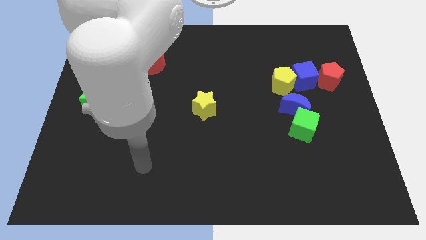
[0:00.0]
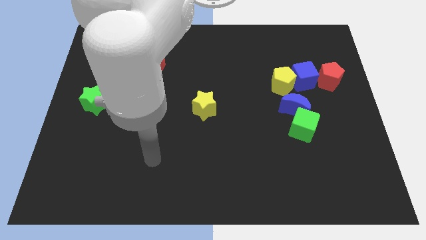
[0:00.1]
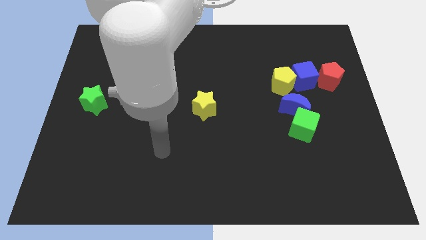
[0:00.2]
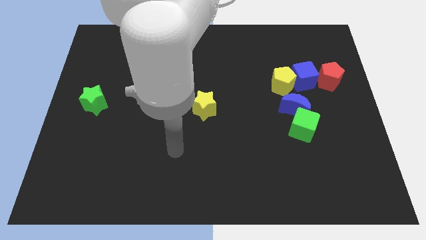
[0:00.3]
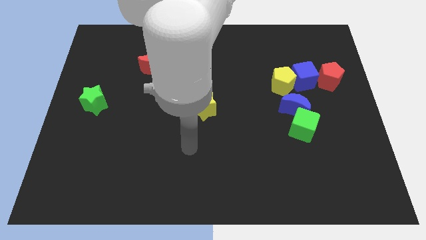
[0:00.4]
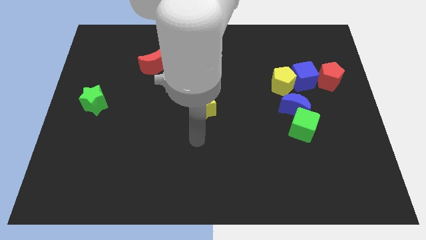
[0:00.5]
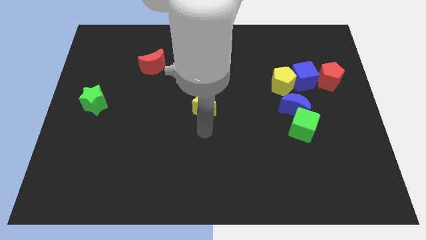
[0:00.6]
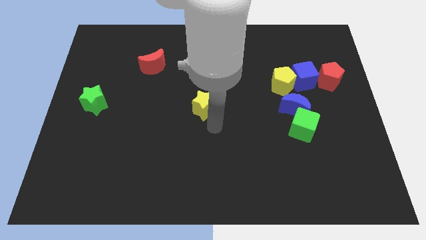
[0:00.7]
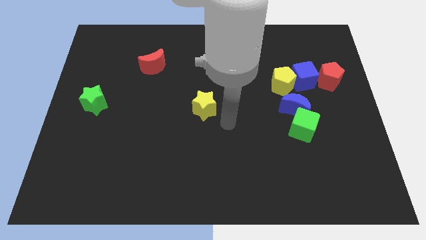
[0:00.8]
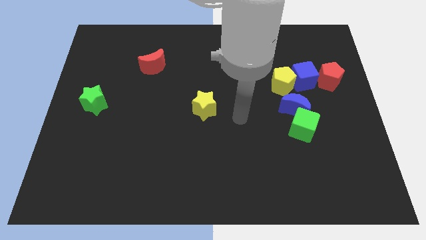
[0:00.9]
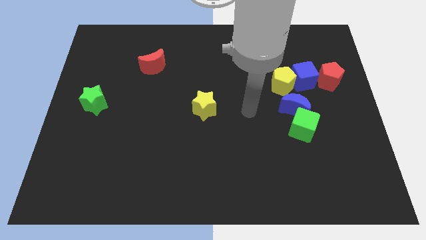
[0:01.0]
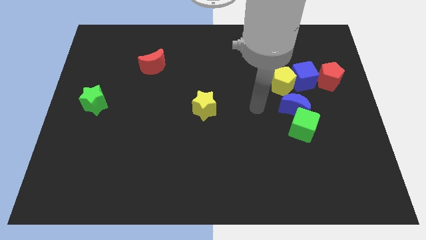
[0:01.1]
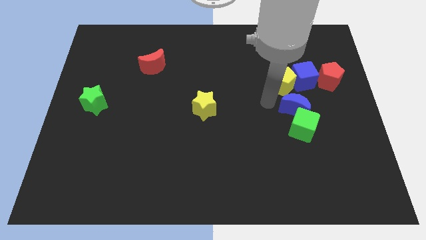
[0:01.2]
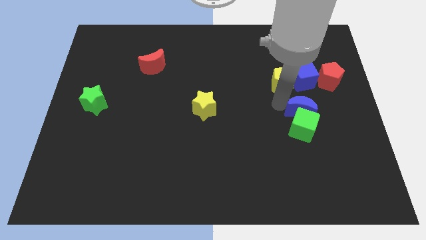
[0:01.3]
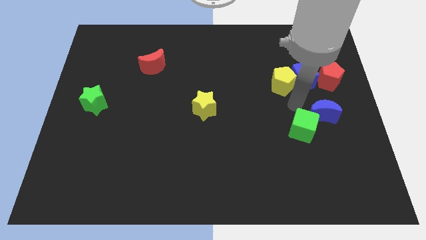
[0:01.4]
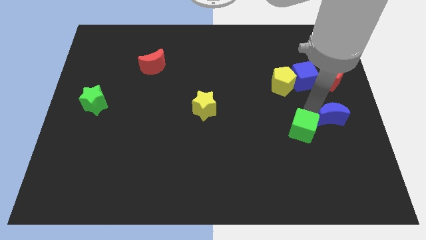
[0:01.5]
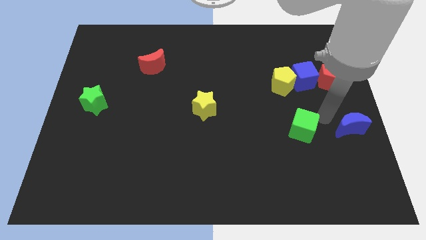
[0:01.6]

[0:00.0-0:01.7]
separate the green cube from the blue moon

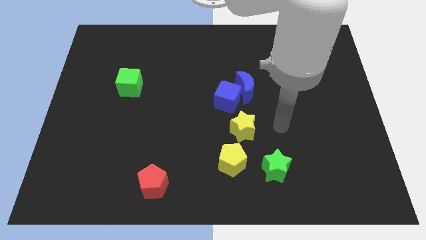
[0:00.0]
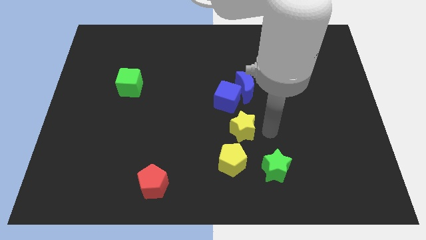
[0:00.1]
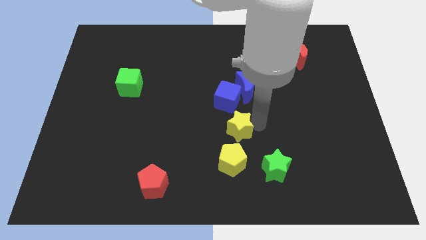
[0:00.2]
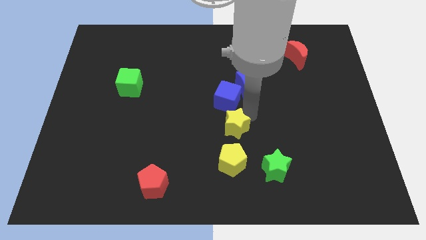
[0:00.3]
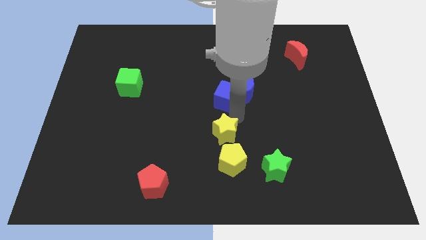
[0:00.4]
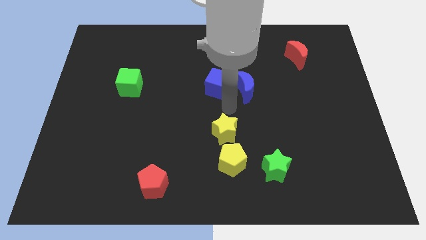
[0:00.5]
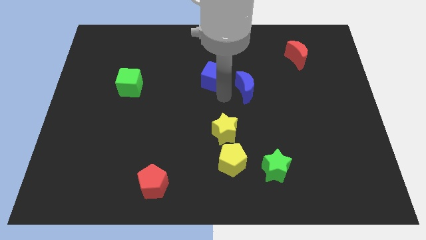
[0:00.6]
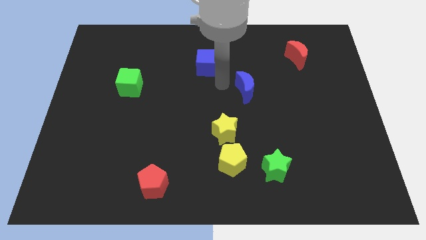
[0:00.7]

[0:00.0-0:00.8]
pull the blue moon apart from the blue cube

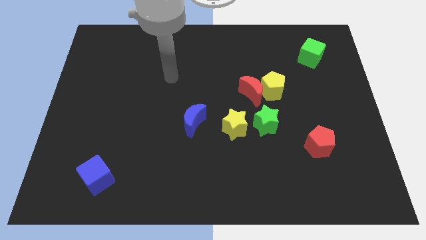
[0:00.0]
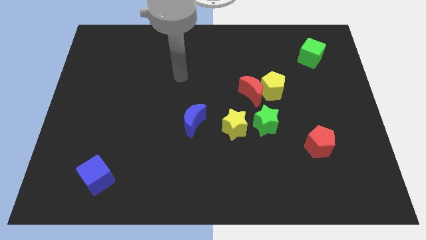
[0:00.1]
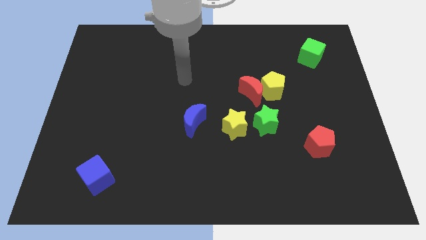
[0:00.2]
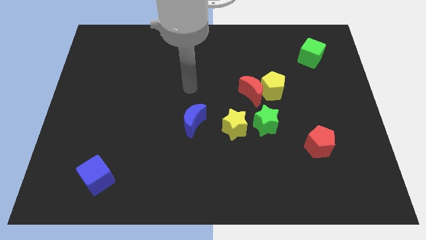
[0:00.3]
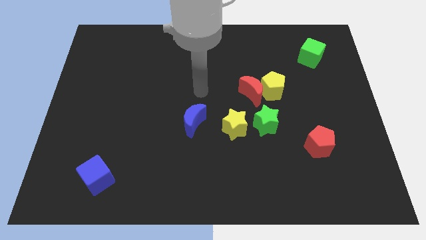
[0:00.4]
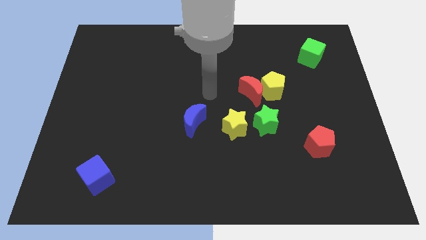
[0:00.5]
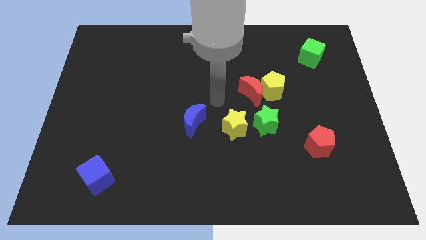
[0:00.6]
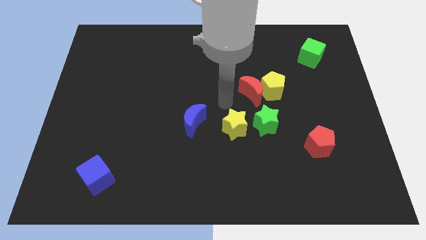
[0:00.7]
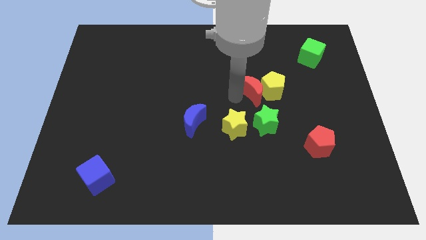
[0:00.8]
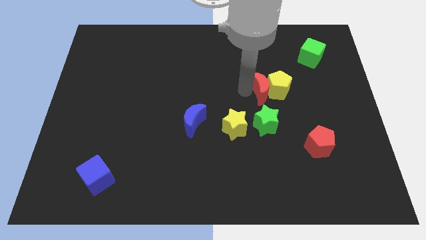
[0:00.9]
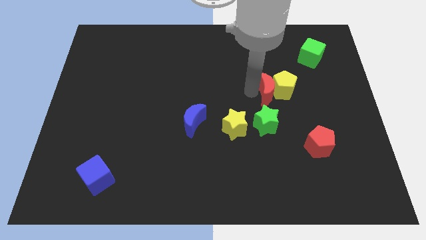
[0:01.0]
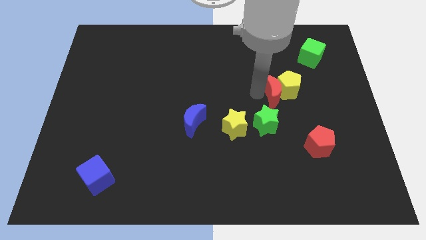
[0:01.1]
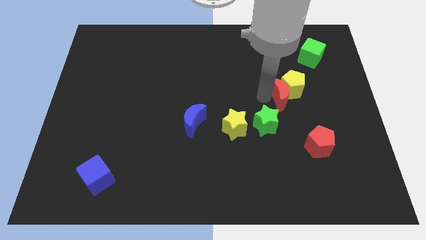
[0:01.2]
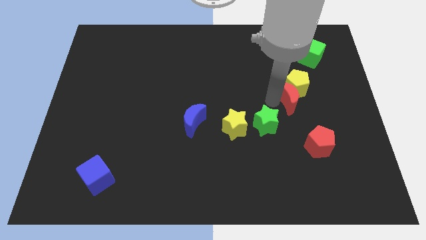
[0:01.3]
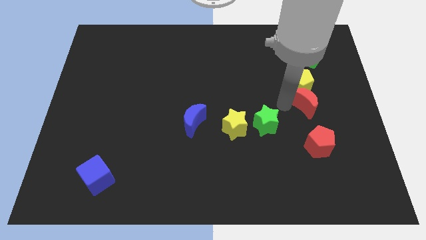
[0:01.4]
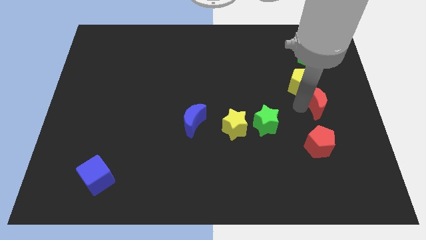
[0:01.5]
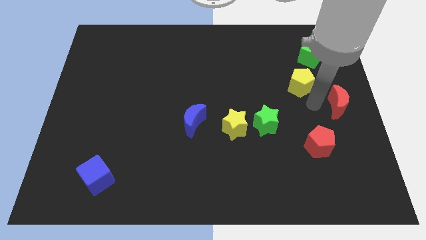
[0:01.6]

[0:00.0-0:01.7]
move the yellow pentagon away from the red moon

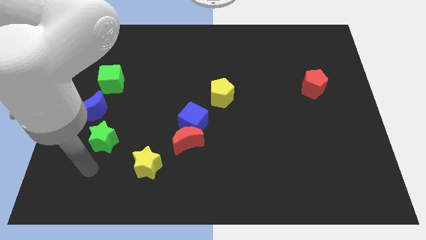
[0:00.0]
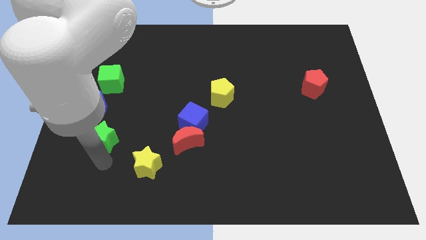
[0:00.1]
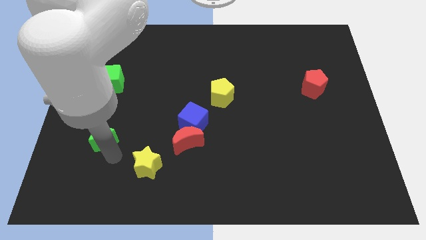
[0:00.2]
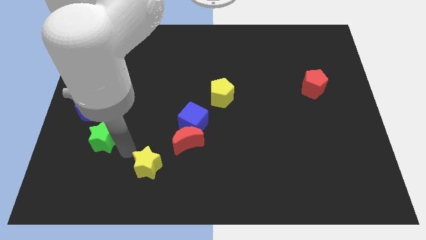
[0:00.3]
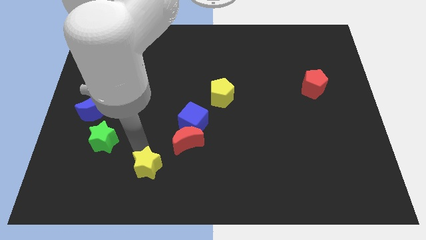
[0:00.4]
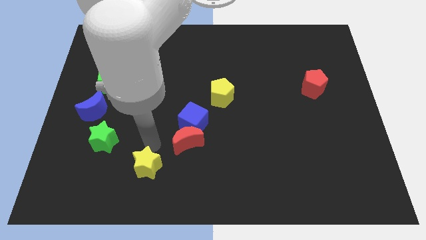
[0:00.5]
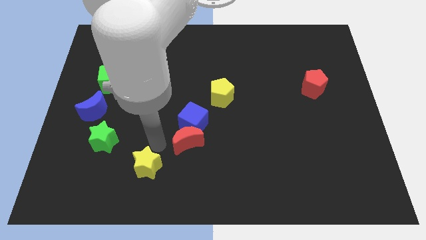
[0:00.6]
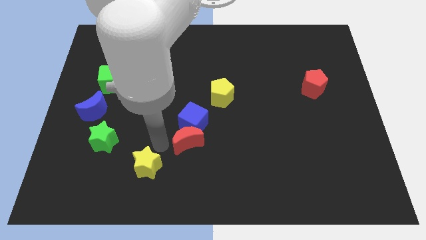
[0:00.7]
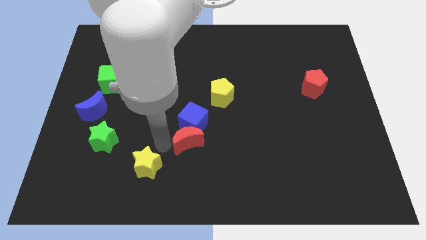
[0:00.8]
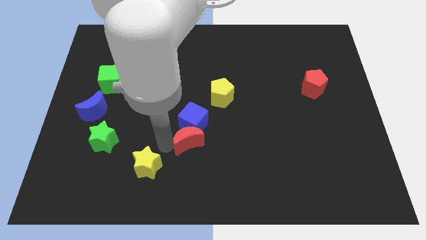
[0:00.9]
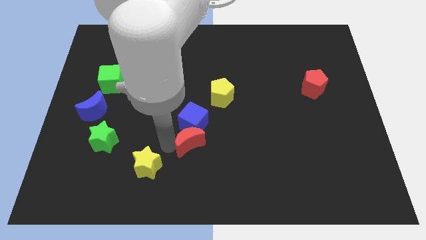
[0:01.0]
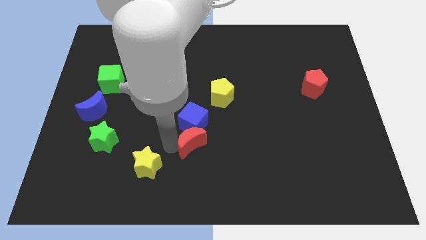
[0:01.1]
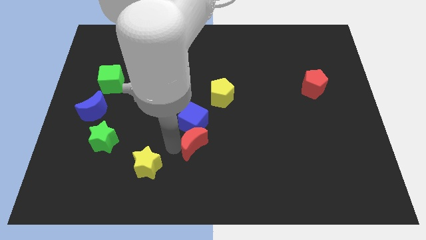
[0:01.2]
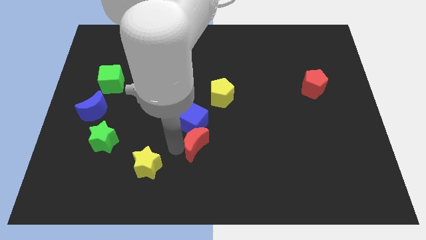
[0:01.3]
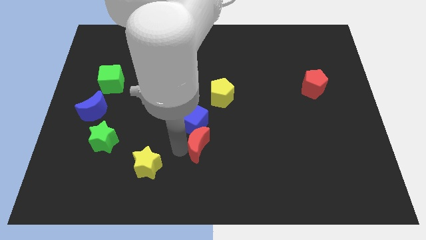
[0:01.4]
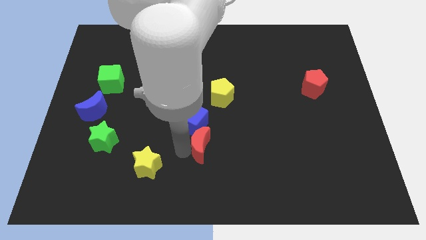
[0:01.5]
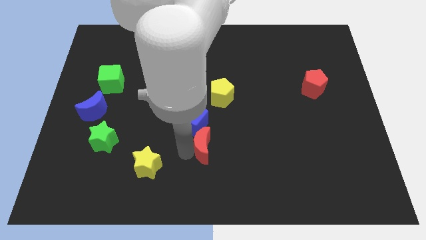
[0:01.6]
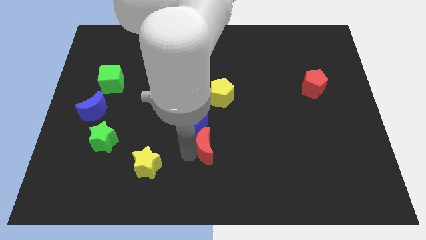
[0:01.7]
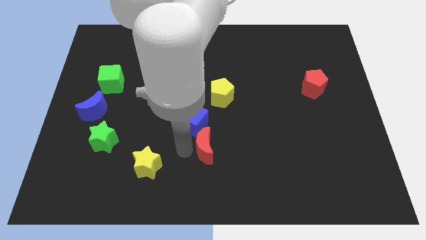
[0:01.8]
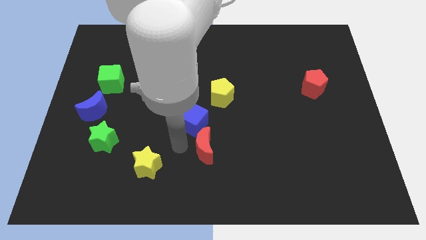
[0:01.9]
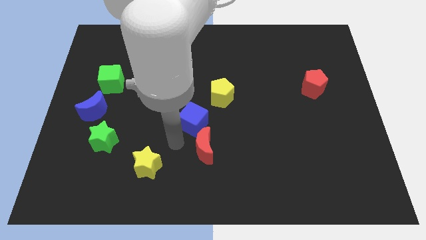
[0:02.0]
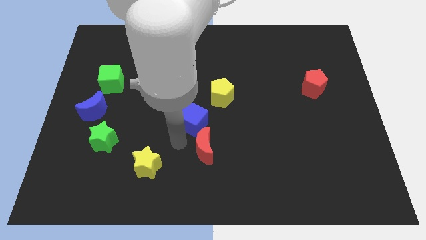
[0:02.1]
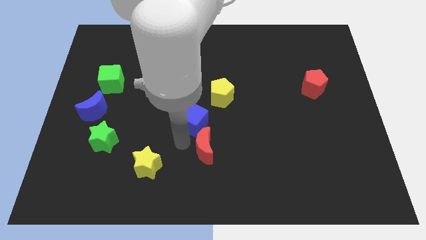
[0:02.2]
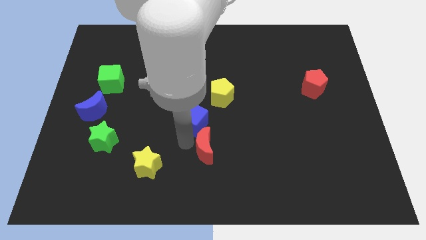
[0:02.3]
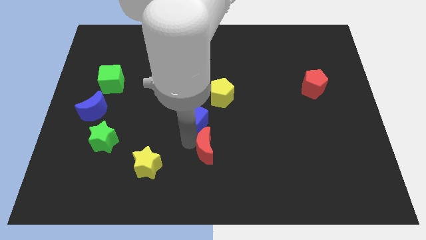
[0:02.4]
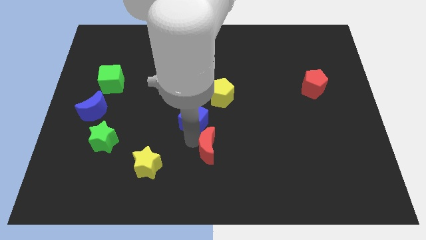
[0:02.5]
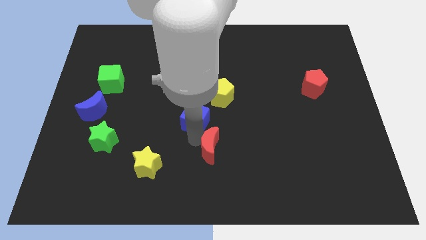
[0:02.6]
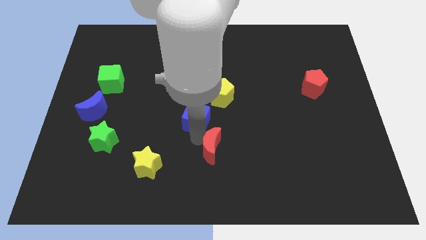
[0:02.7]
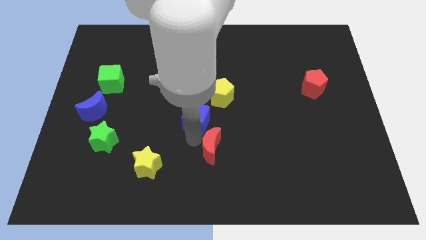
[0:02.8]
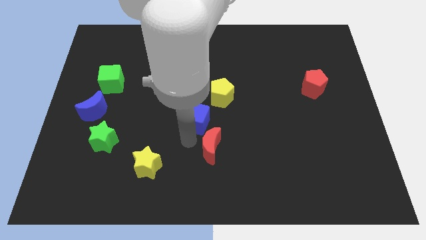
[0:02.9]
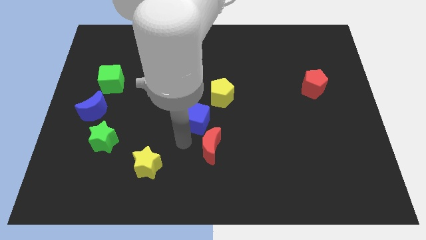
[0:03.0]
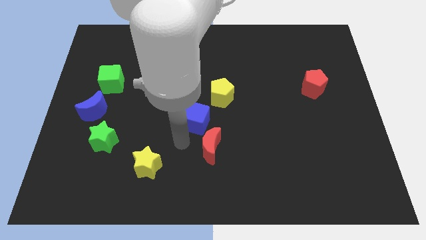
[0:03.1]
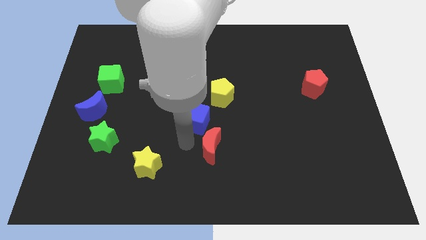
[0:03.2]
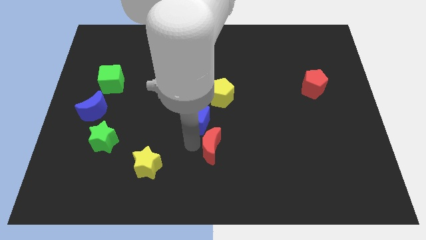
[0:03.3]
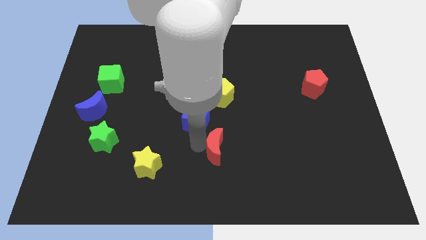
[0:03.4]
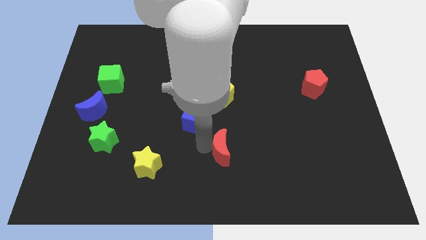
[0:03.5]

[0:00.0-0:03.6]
move the red moon away from the blue cube and yellow star

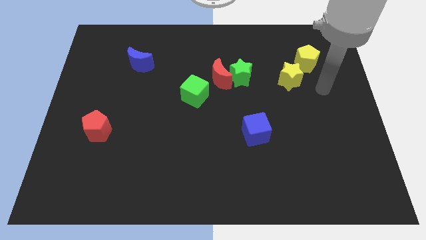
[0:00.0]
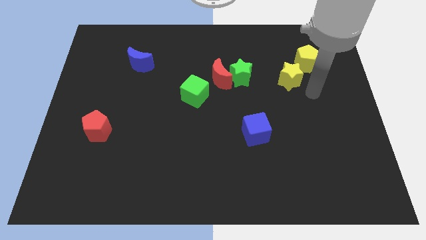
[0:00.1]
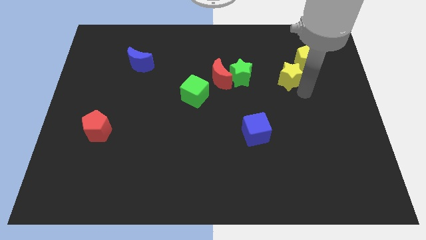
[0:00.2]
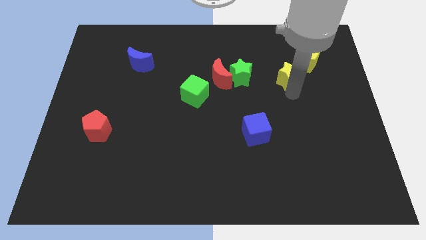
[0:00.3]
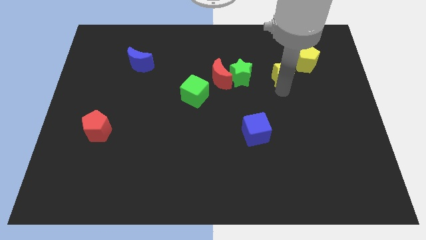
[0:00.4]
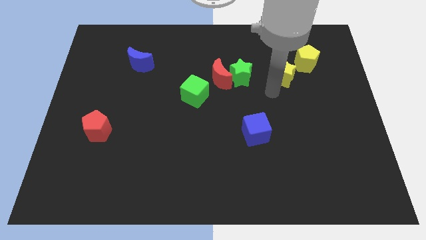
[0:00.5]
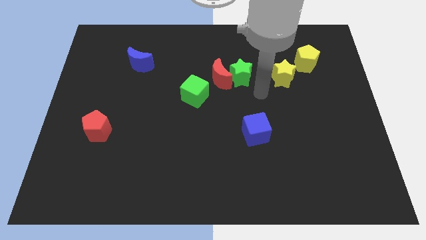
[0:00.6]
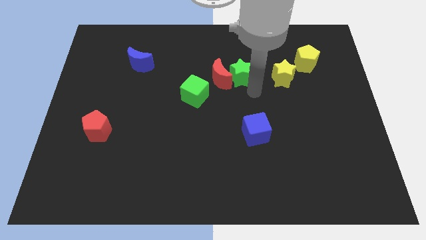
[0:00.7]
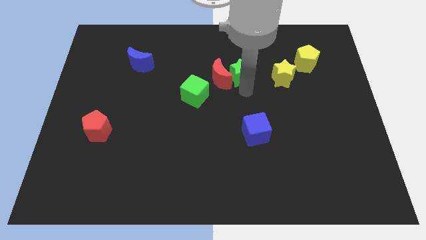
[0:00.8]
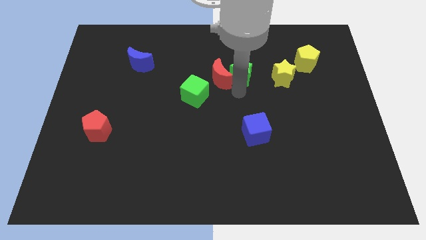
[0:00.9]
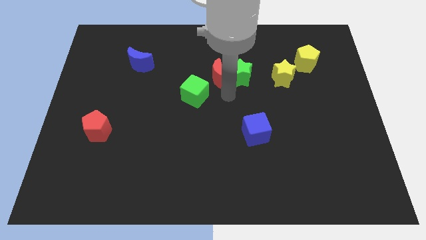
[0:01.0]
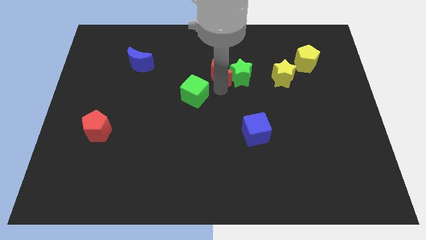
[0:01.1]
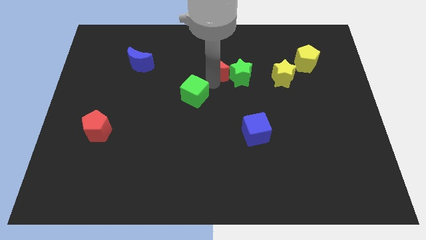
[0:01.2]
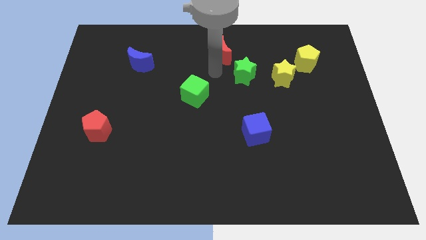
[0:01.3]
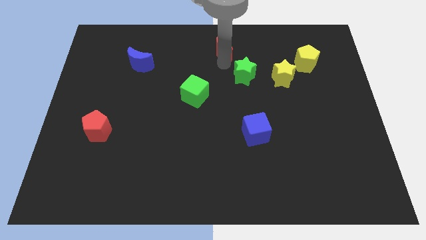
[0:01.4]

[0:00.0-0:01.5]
separate the green star from the red moon
